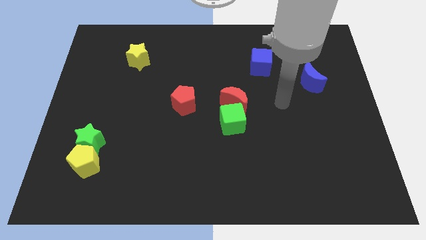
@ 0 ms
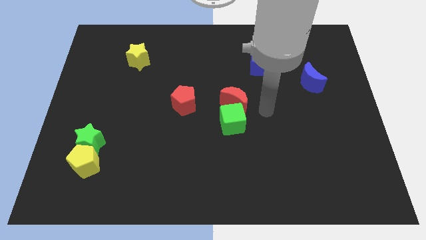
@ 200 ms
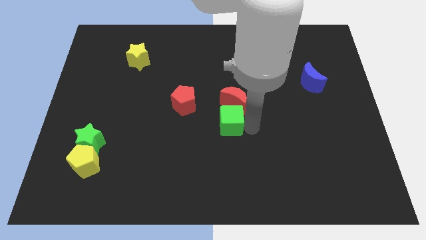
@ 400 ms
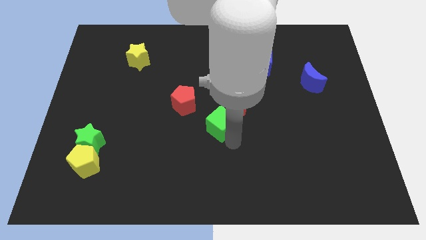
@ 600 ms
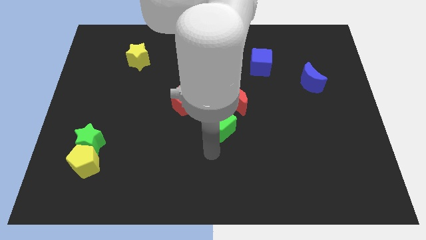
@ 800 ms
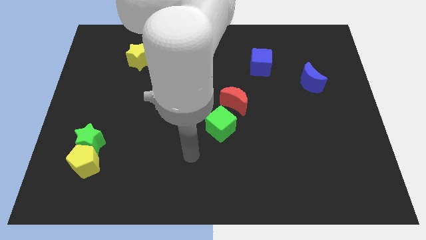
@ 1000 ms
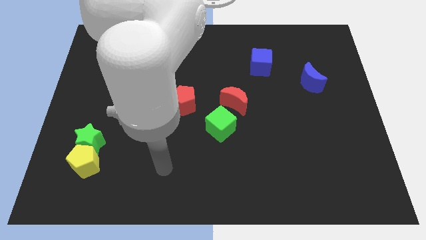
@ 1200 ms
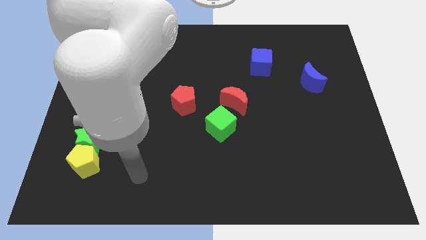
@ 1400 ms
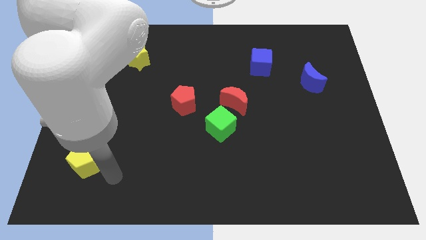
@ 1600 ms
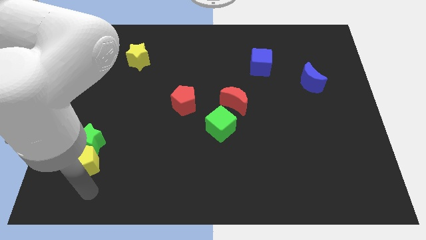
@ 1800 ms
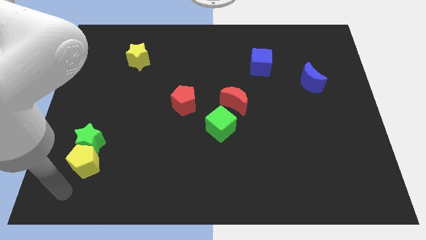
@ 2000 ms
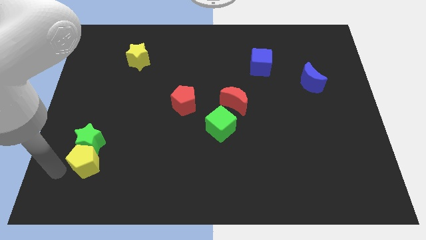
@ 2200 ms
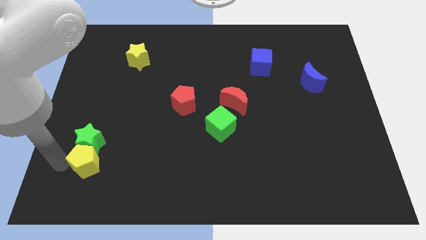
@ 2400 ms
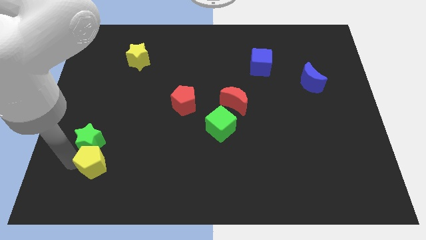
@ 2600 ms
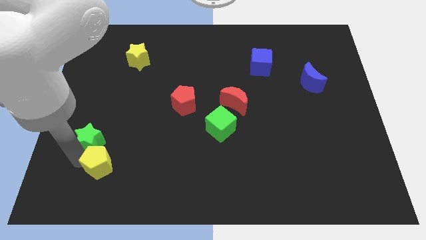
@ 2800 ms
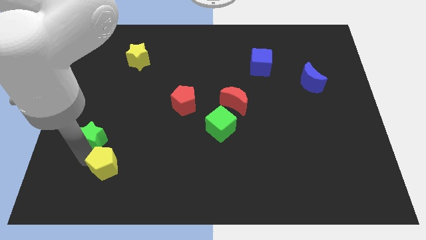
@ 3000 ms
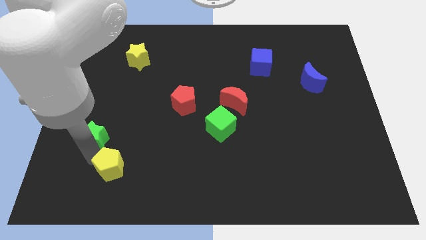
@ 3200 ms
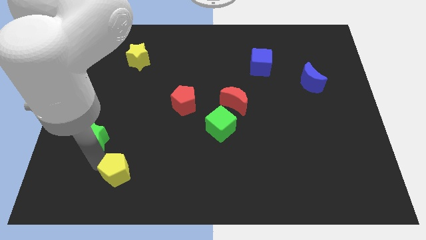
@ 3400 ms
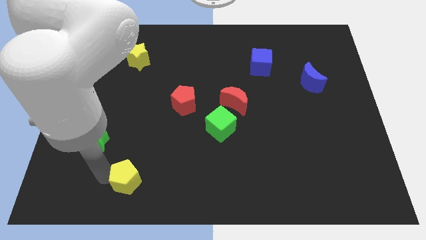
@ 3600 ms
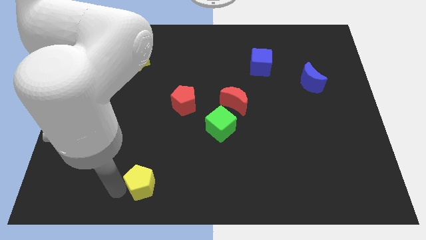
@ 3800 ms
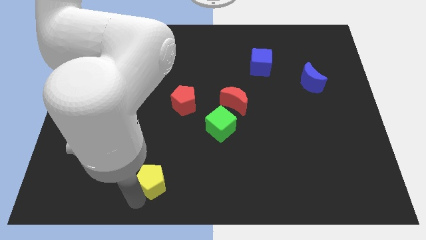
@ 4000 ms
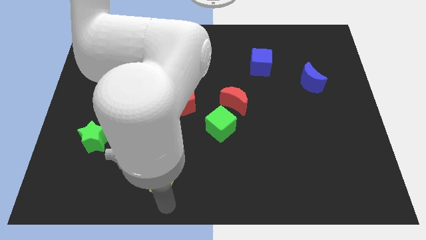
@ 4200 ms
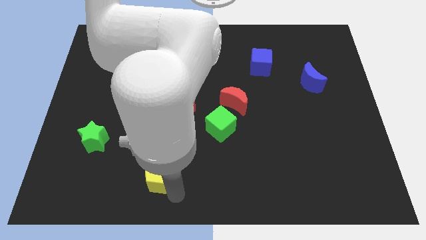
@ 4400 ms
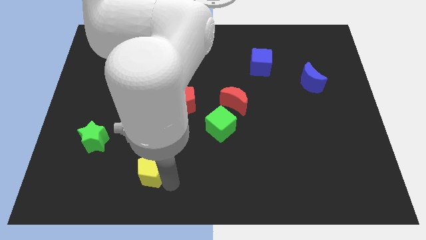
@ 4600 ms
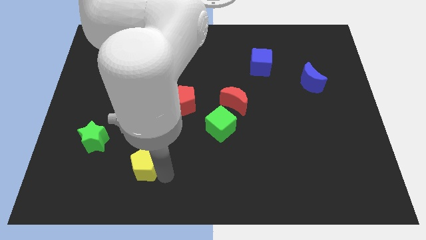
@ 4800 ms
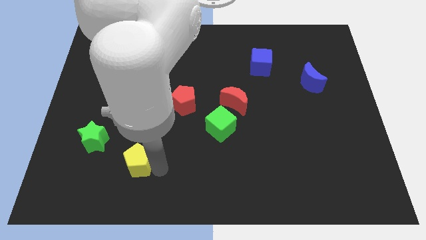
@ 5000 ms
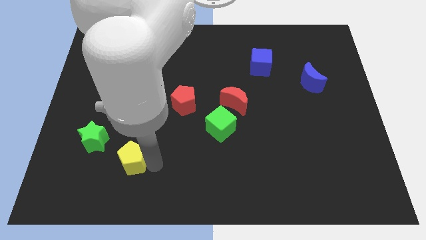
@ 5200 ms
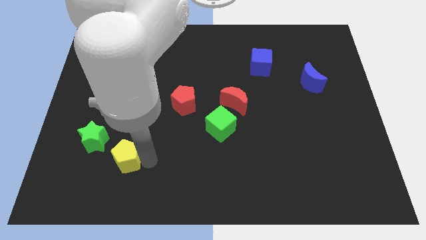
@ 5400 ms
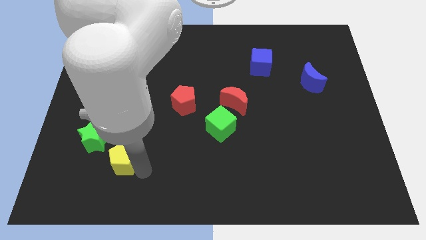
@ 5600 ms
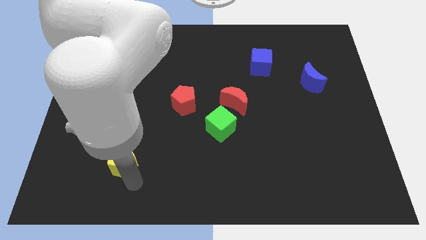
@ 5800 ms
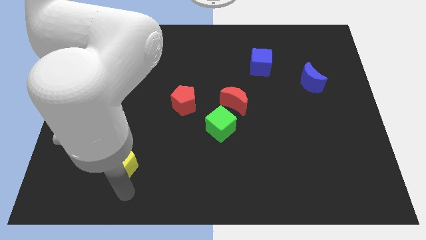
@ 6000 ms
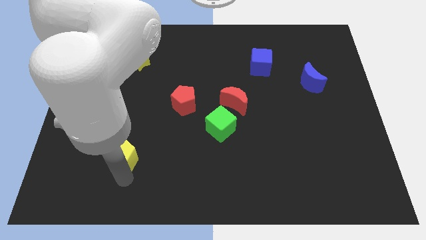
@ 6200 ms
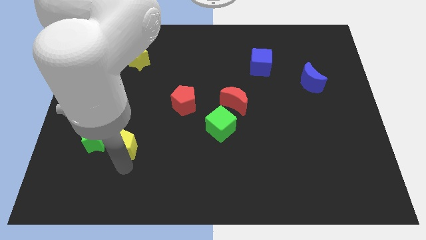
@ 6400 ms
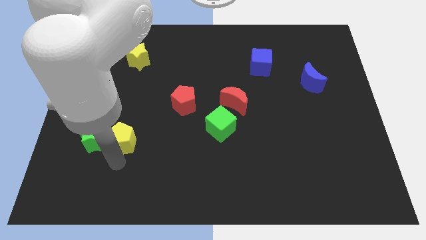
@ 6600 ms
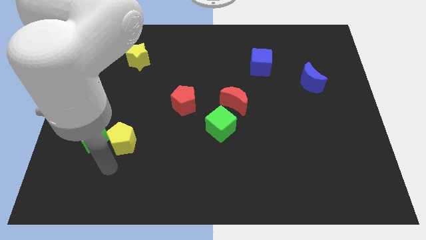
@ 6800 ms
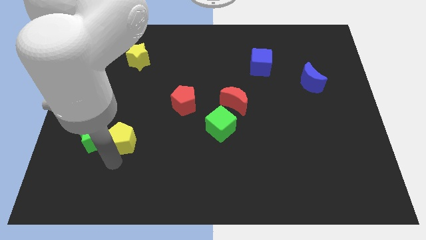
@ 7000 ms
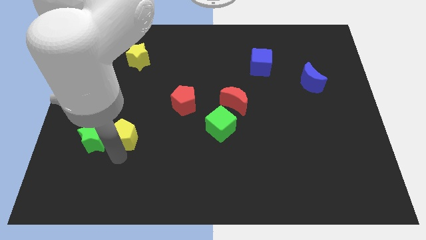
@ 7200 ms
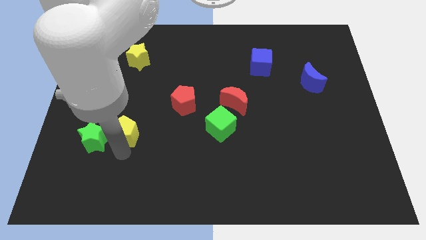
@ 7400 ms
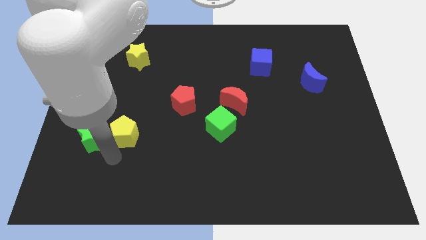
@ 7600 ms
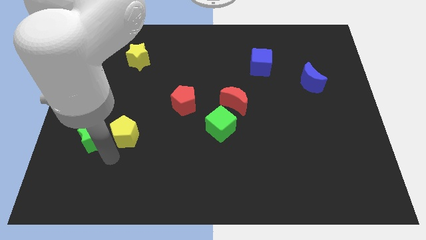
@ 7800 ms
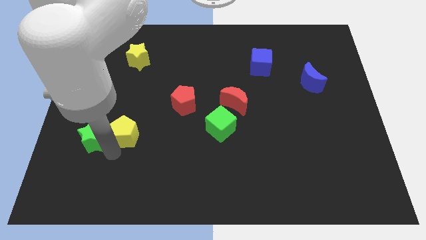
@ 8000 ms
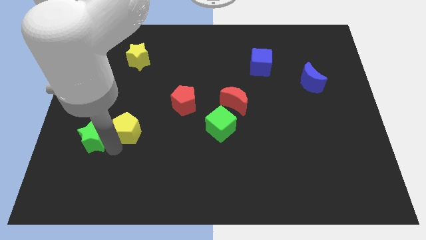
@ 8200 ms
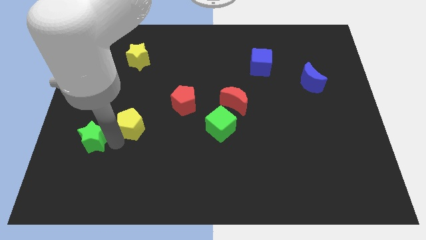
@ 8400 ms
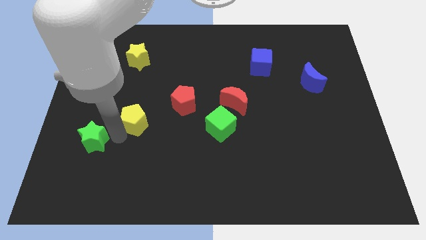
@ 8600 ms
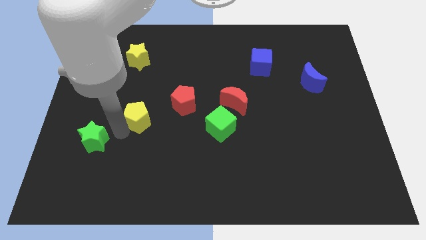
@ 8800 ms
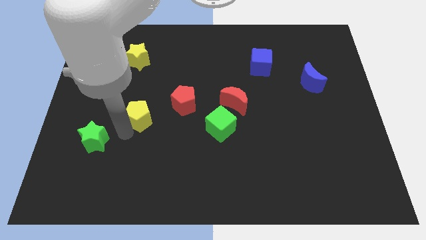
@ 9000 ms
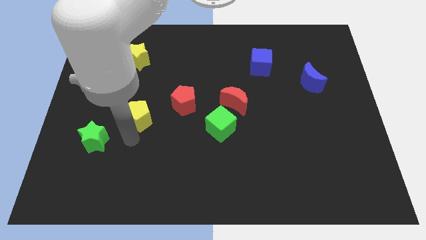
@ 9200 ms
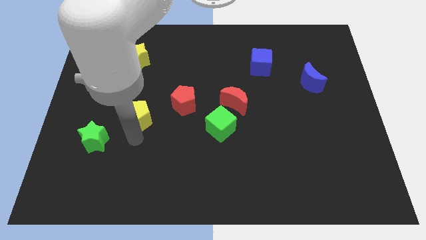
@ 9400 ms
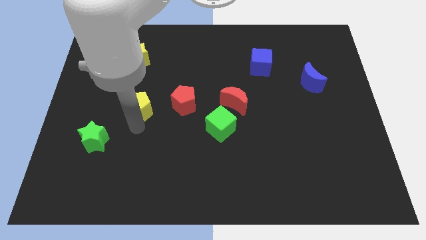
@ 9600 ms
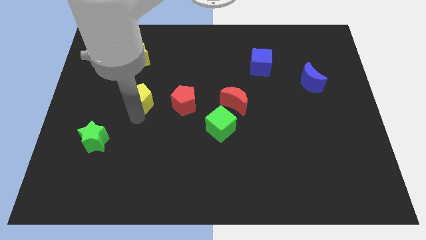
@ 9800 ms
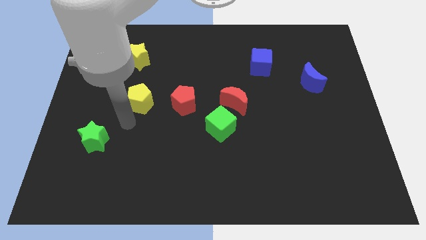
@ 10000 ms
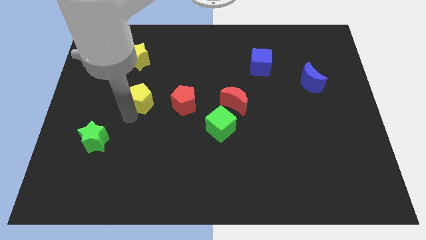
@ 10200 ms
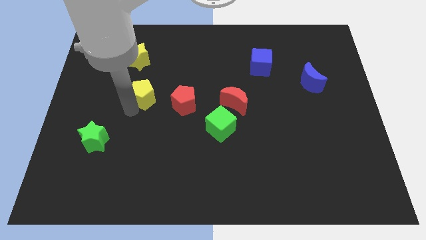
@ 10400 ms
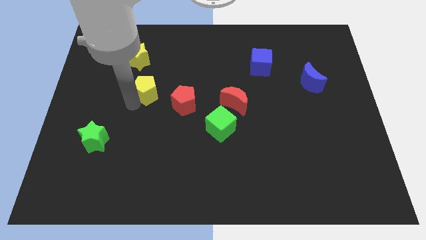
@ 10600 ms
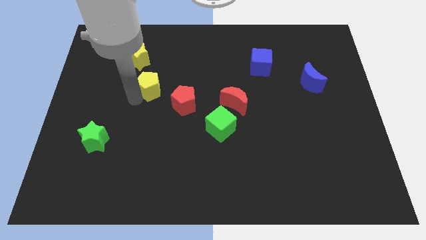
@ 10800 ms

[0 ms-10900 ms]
put the yellow pentagon to the bottom right side of the yellow star

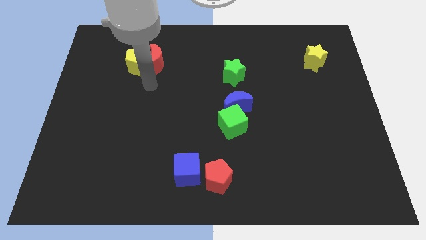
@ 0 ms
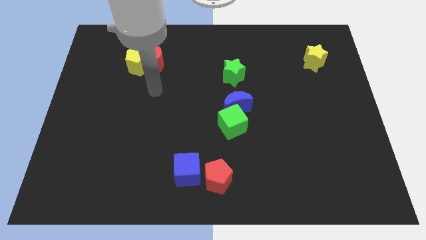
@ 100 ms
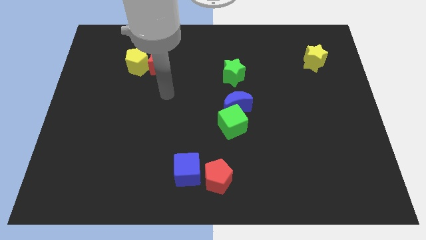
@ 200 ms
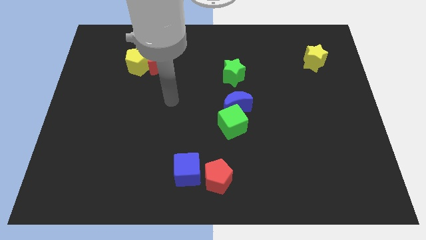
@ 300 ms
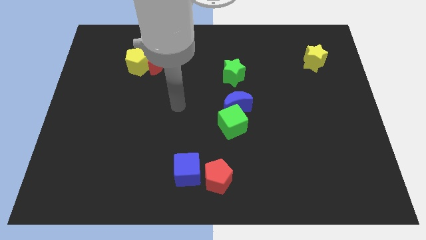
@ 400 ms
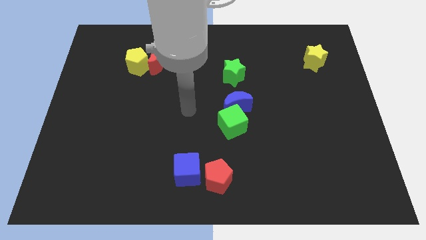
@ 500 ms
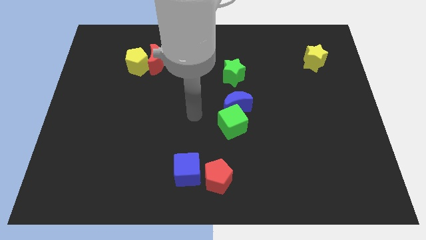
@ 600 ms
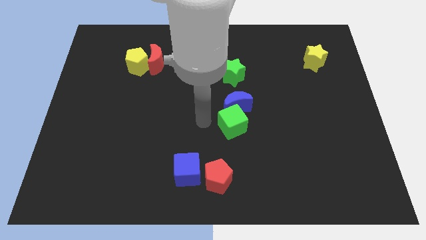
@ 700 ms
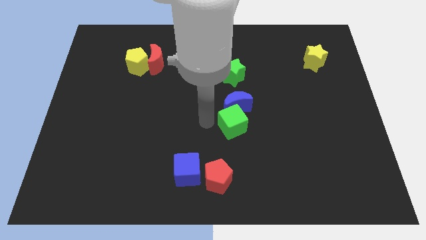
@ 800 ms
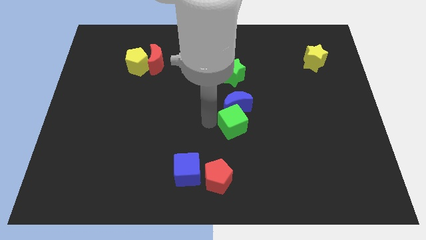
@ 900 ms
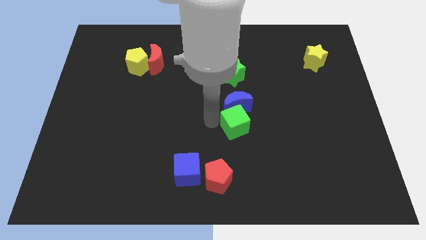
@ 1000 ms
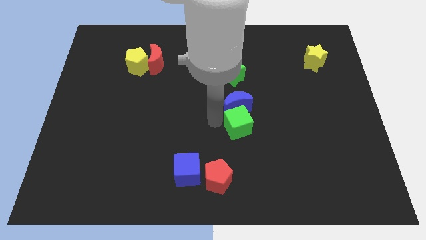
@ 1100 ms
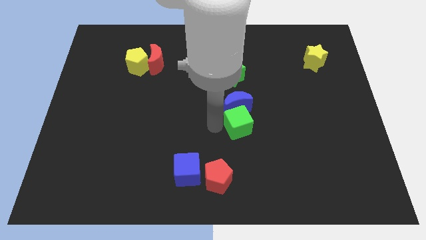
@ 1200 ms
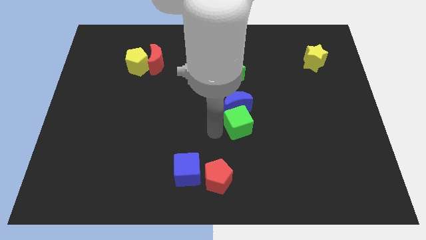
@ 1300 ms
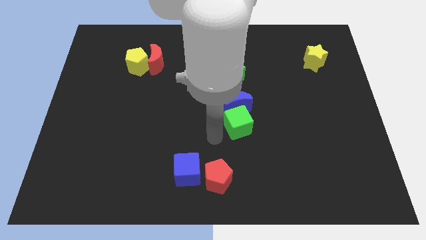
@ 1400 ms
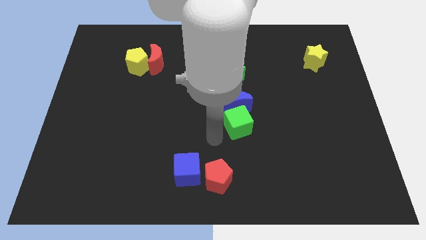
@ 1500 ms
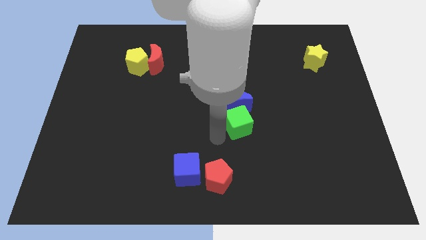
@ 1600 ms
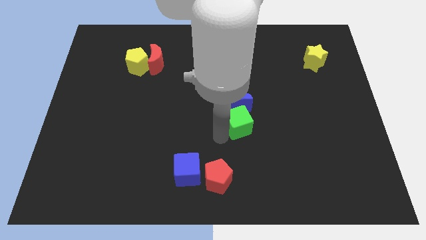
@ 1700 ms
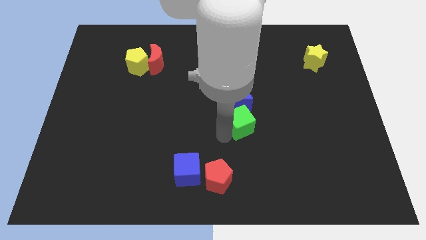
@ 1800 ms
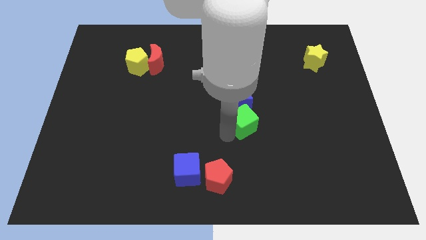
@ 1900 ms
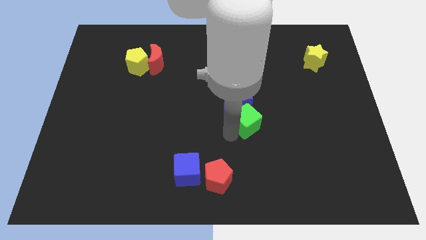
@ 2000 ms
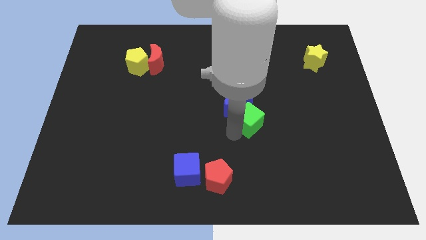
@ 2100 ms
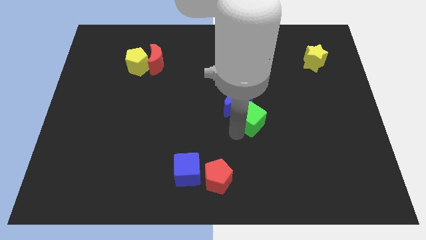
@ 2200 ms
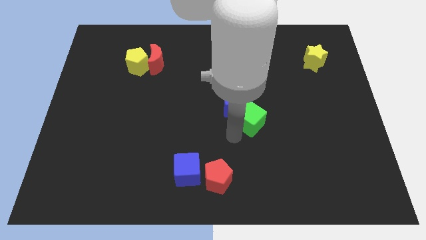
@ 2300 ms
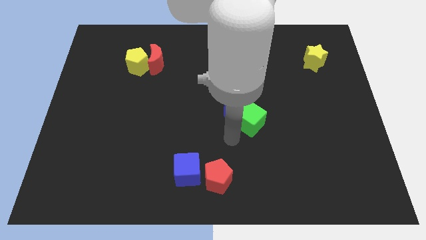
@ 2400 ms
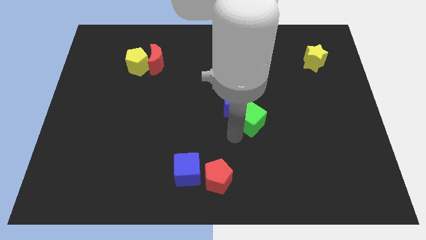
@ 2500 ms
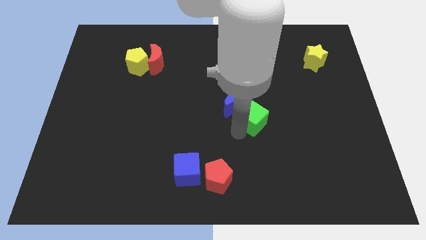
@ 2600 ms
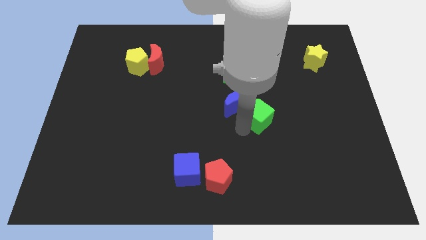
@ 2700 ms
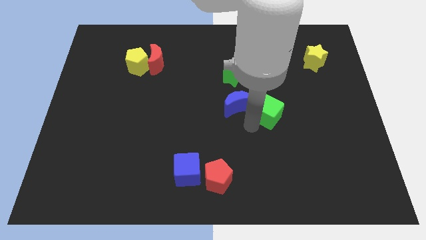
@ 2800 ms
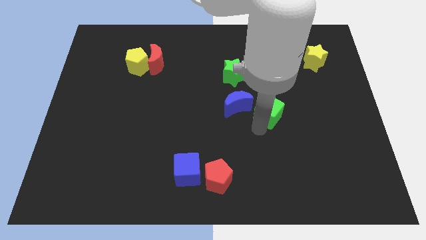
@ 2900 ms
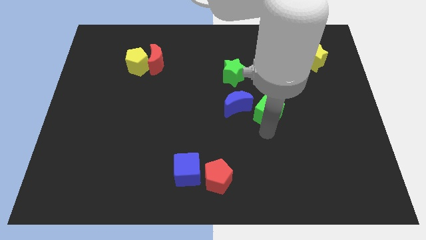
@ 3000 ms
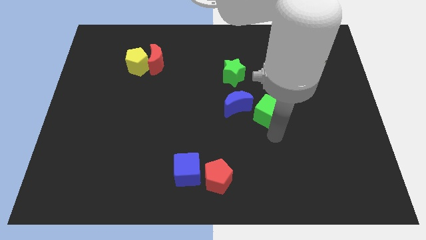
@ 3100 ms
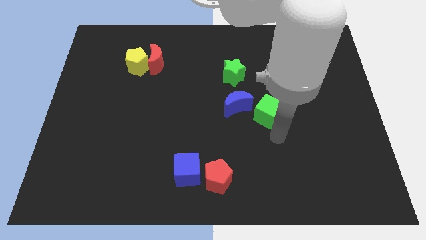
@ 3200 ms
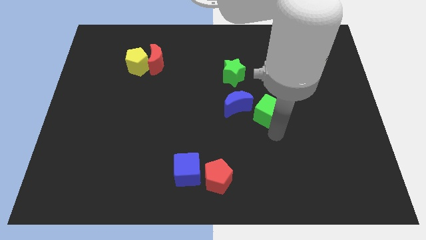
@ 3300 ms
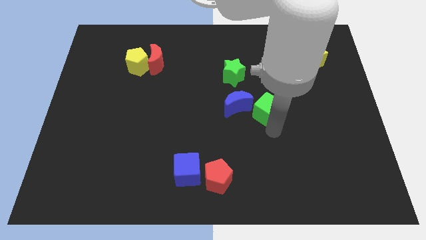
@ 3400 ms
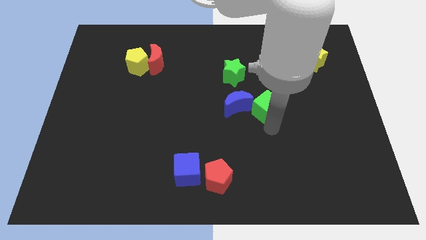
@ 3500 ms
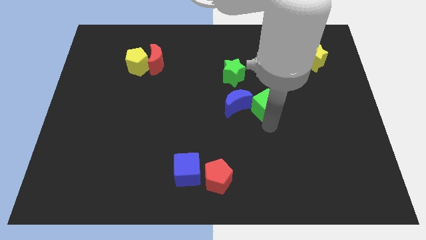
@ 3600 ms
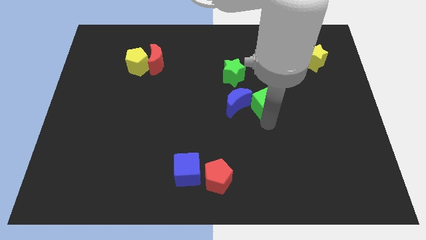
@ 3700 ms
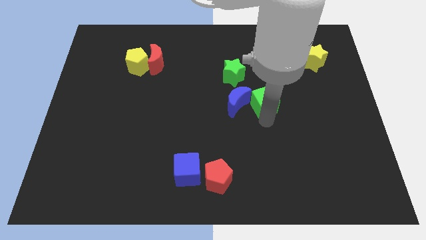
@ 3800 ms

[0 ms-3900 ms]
push the green cube to the top right of the blue moon
